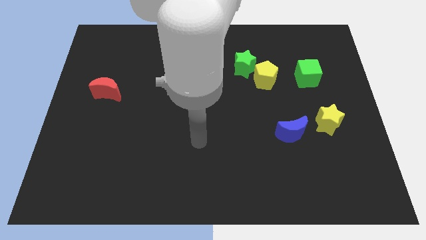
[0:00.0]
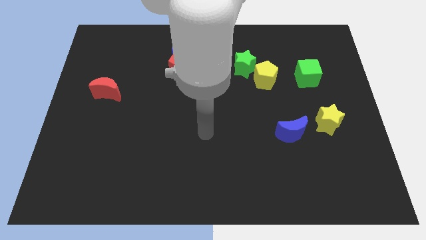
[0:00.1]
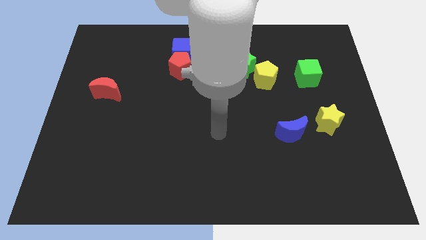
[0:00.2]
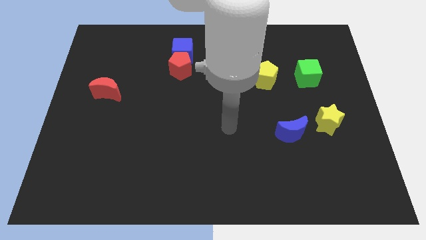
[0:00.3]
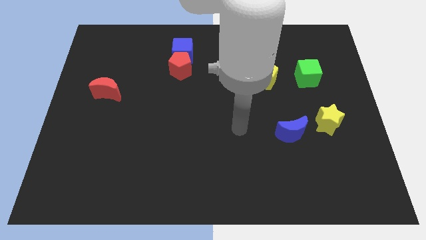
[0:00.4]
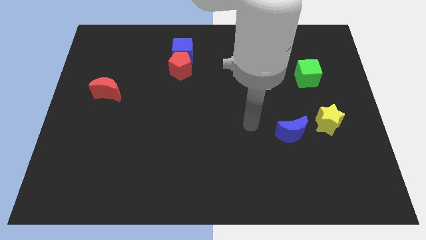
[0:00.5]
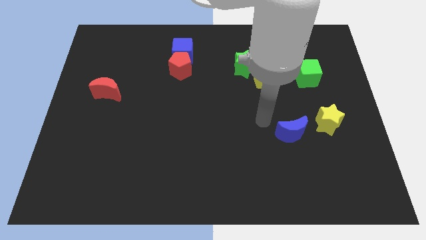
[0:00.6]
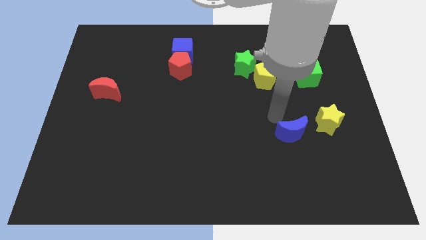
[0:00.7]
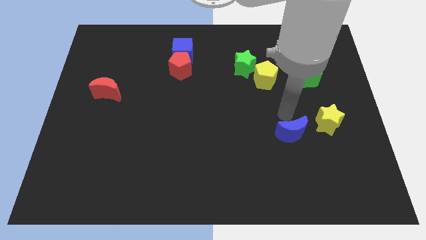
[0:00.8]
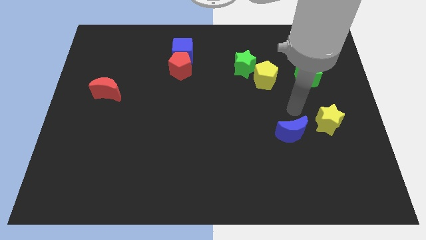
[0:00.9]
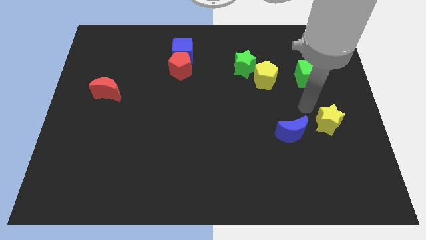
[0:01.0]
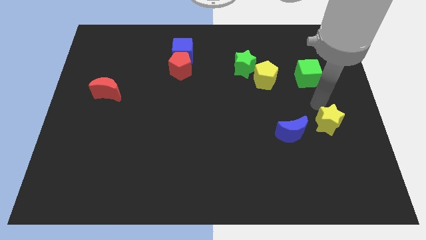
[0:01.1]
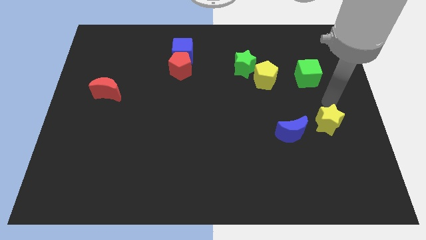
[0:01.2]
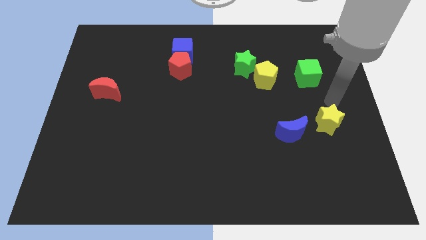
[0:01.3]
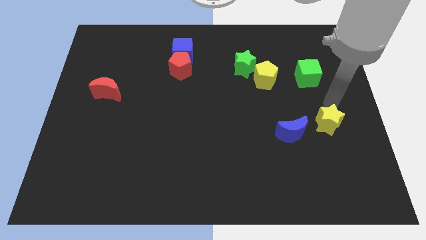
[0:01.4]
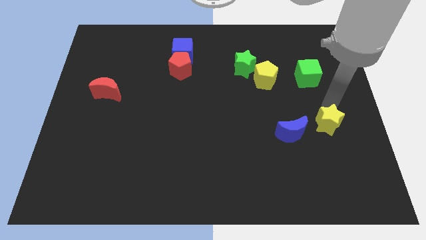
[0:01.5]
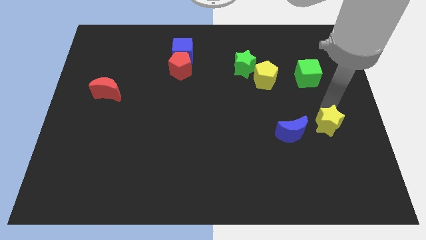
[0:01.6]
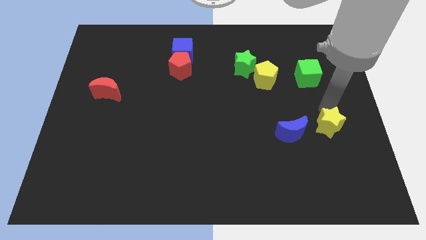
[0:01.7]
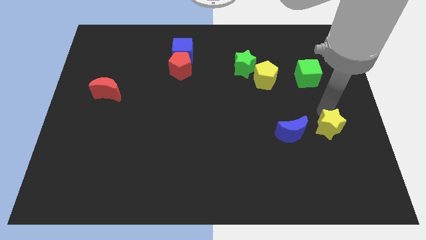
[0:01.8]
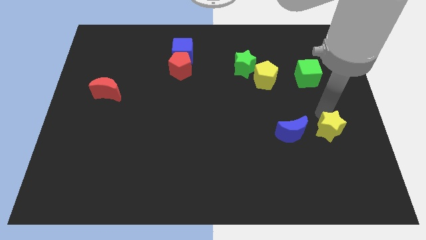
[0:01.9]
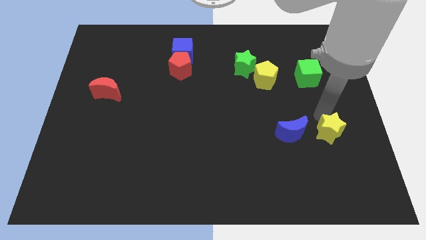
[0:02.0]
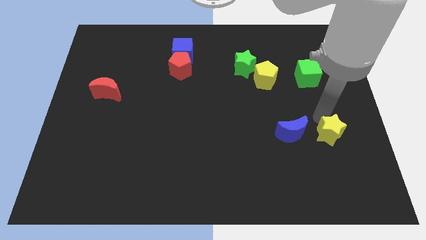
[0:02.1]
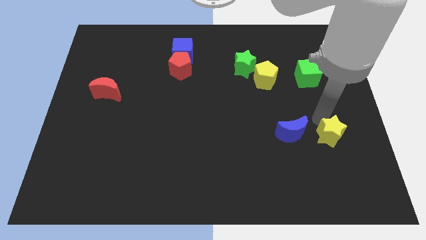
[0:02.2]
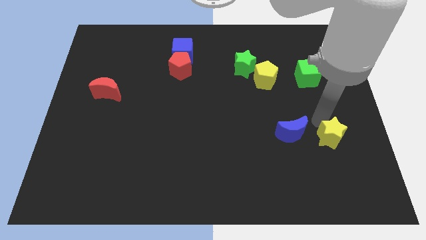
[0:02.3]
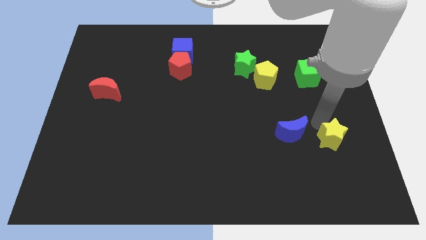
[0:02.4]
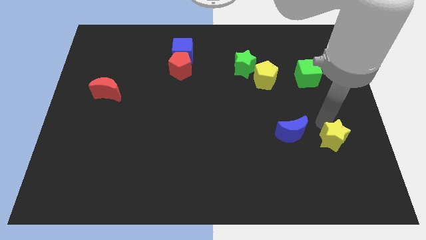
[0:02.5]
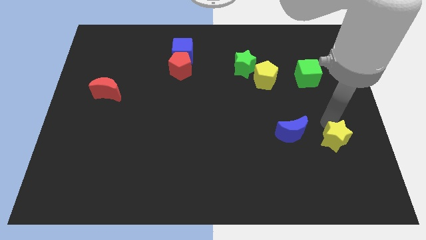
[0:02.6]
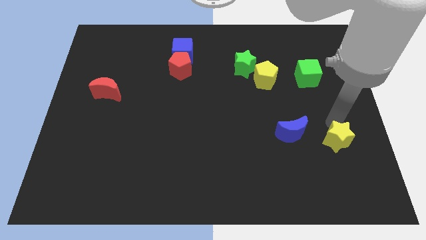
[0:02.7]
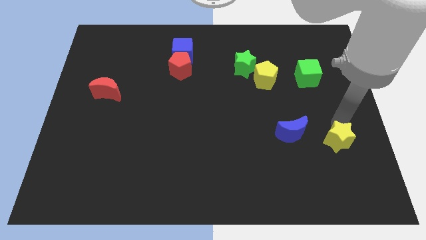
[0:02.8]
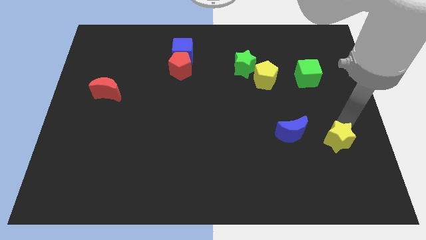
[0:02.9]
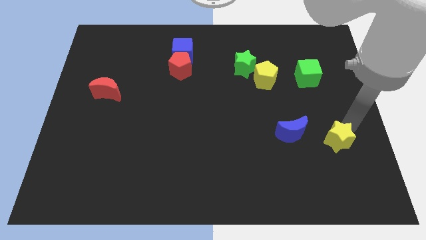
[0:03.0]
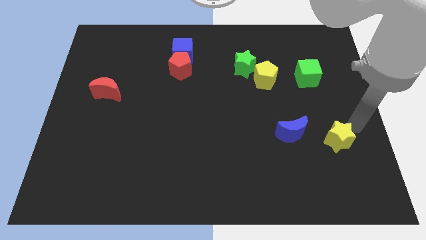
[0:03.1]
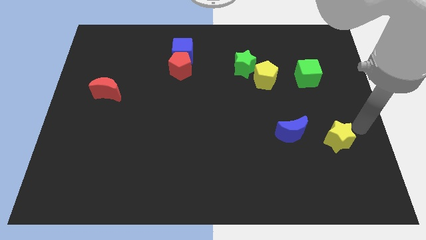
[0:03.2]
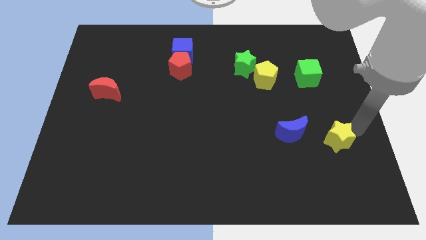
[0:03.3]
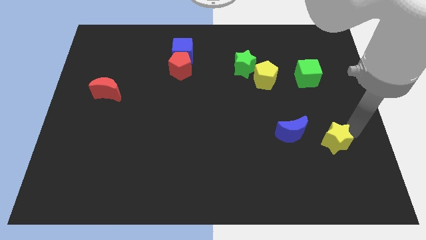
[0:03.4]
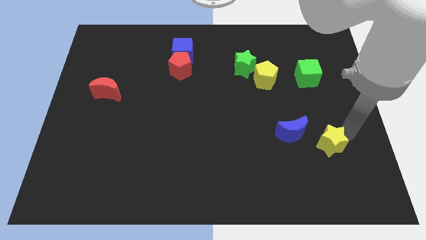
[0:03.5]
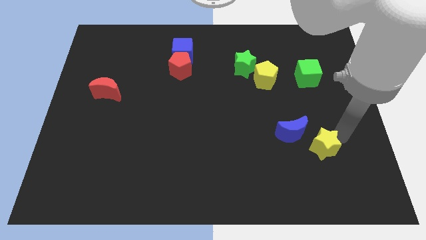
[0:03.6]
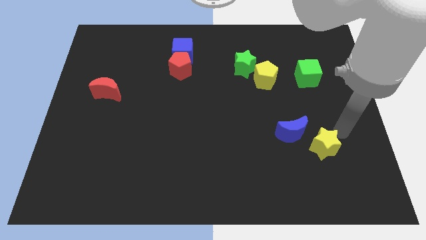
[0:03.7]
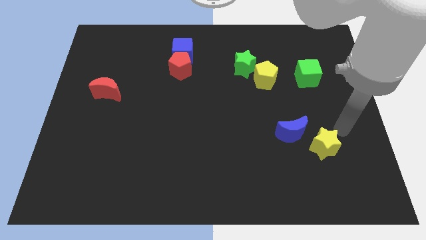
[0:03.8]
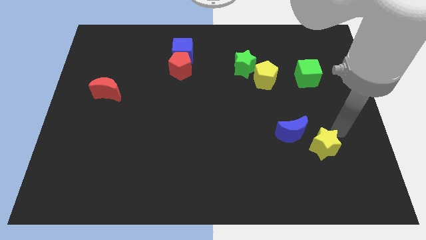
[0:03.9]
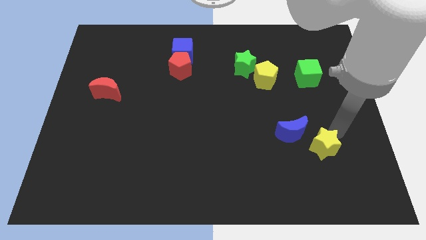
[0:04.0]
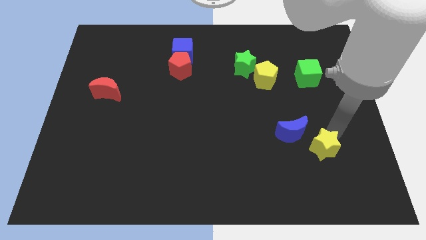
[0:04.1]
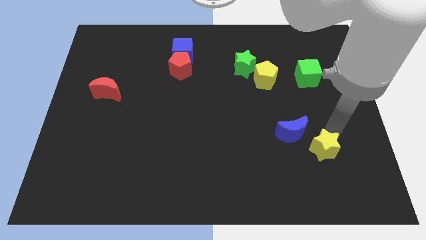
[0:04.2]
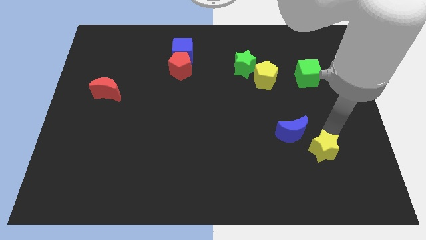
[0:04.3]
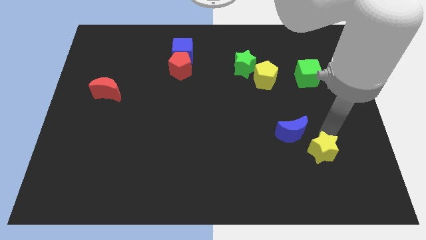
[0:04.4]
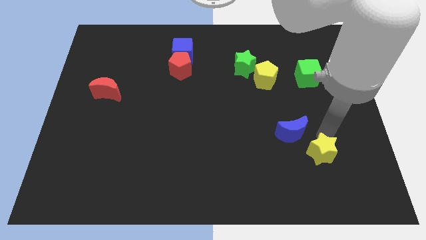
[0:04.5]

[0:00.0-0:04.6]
slightly push the yellow star downwards and to the left diagonally

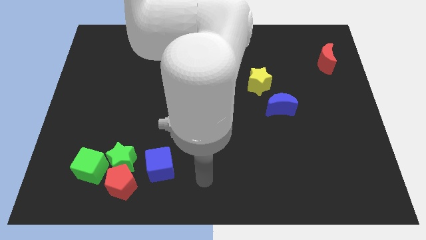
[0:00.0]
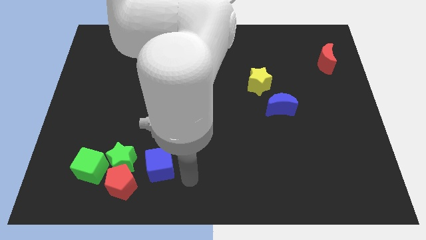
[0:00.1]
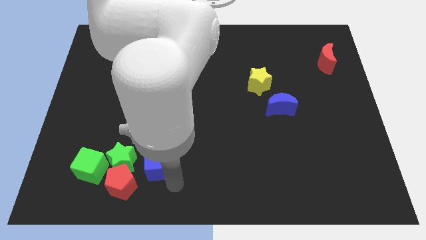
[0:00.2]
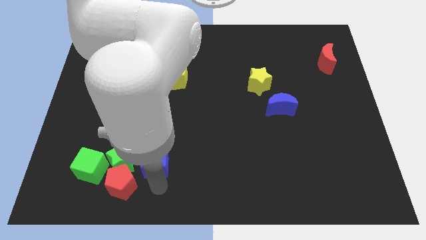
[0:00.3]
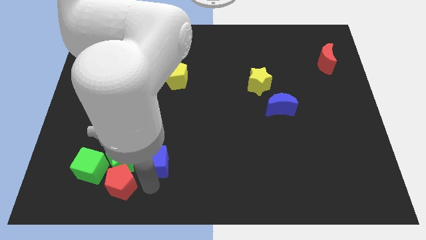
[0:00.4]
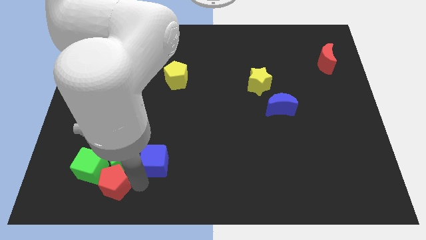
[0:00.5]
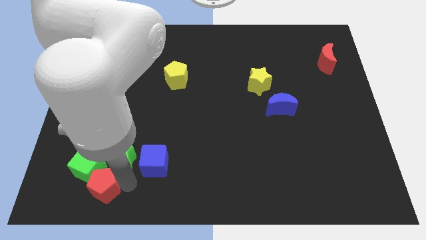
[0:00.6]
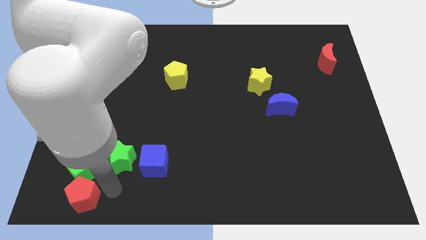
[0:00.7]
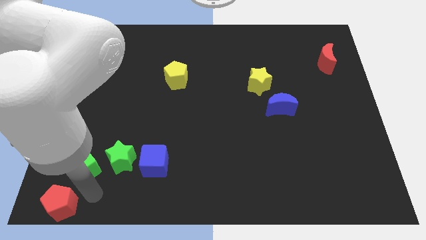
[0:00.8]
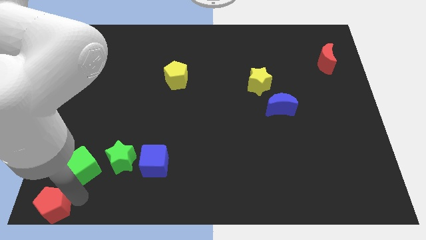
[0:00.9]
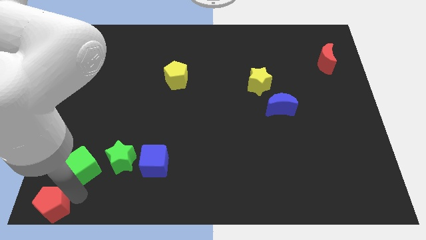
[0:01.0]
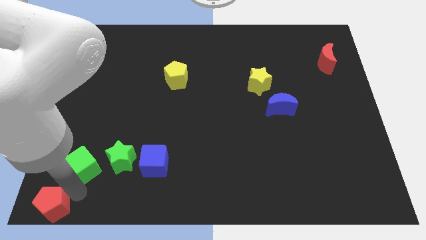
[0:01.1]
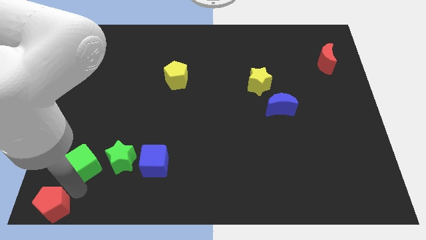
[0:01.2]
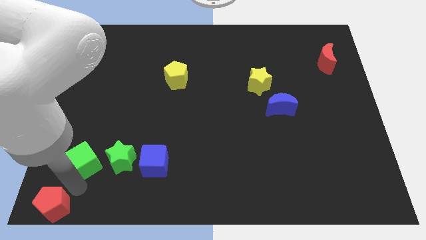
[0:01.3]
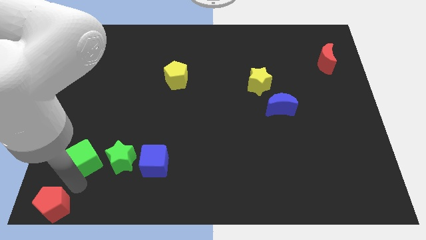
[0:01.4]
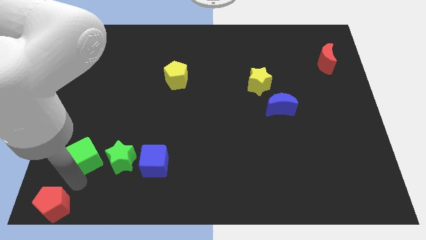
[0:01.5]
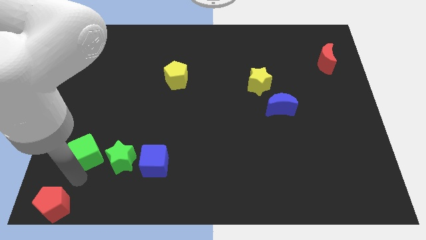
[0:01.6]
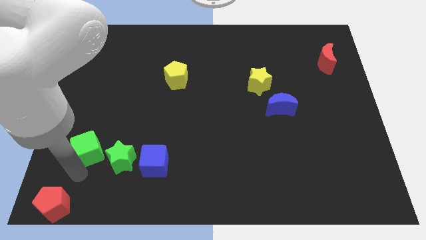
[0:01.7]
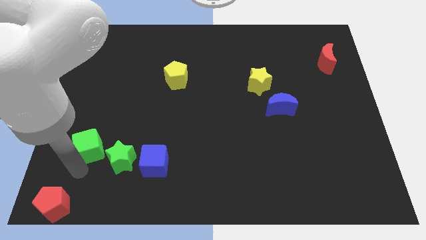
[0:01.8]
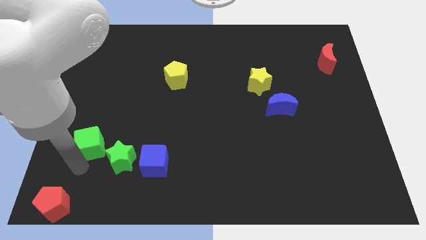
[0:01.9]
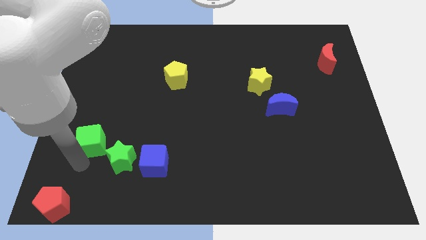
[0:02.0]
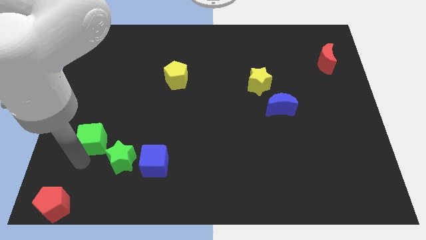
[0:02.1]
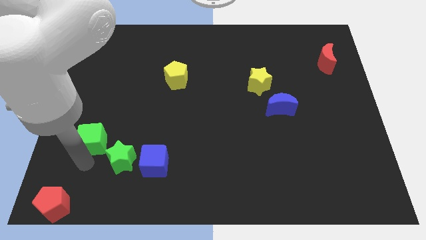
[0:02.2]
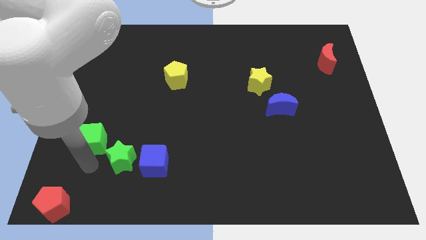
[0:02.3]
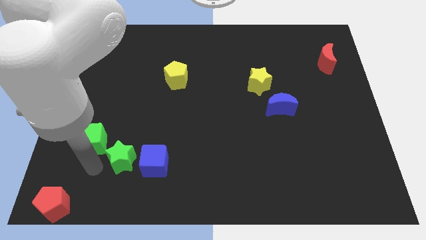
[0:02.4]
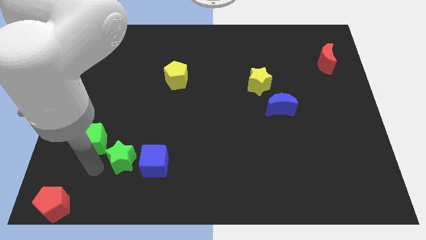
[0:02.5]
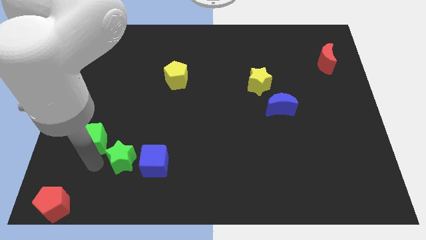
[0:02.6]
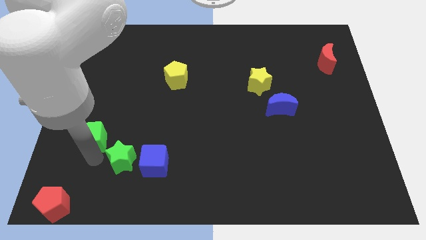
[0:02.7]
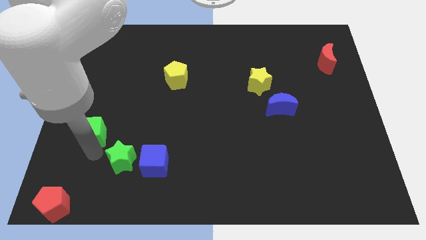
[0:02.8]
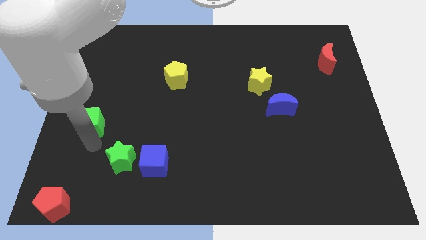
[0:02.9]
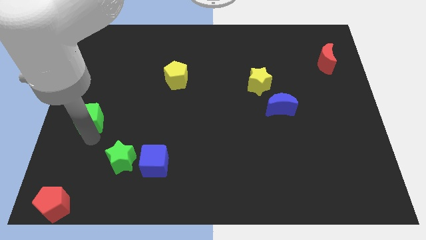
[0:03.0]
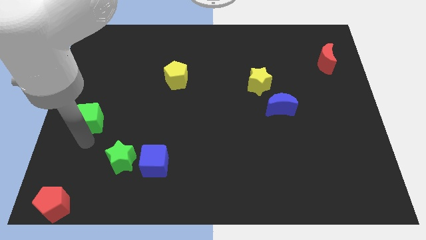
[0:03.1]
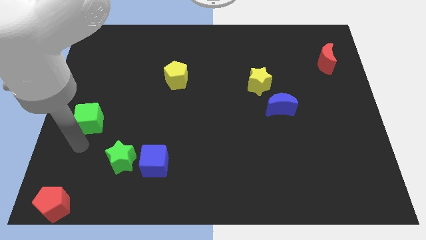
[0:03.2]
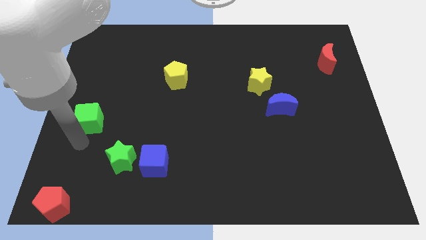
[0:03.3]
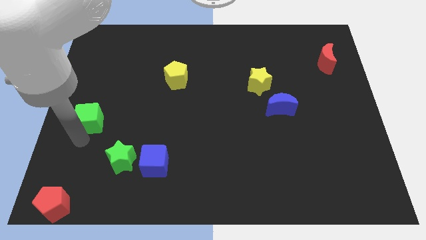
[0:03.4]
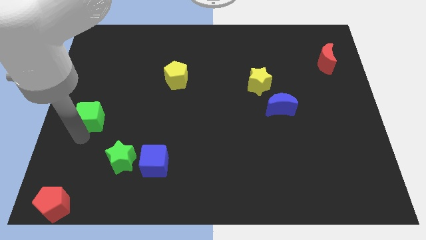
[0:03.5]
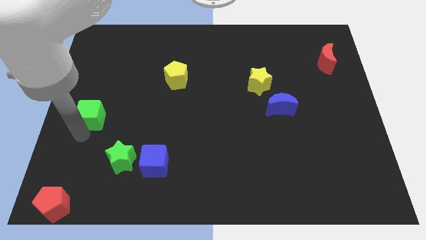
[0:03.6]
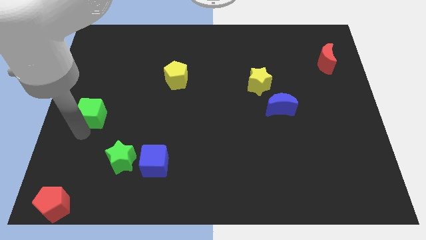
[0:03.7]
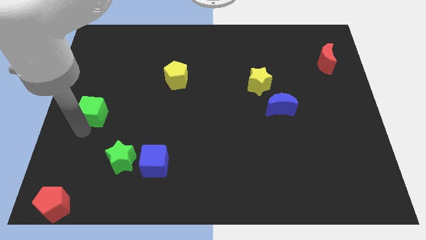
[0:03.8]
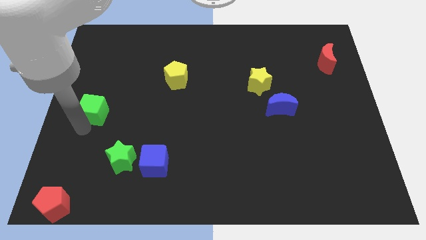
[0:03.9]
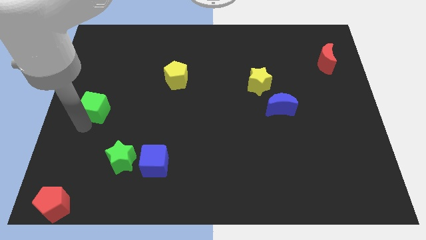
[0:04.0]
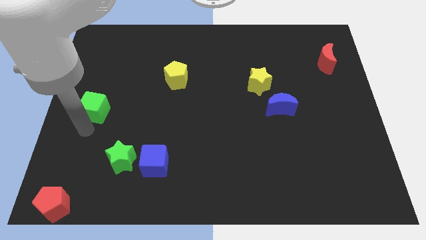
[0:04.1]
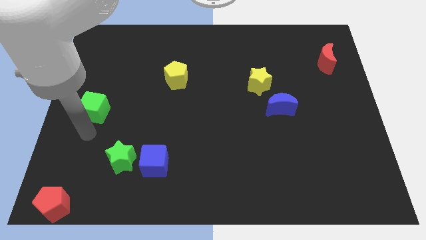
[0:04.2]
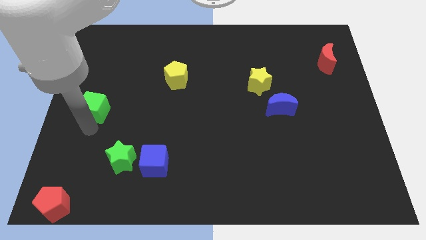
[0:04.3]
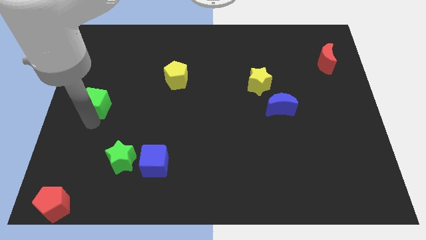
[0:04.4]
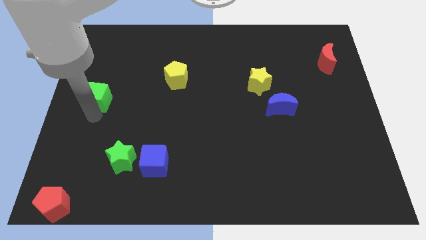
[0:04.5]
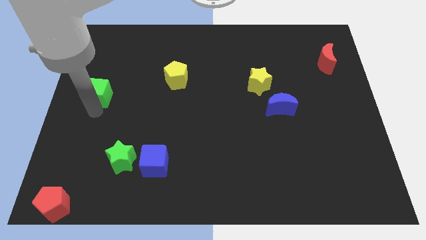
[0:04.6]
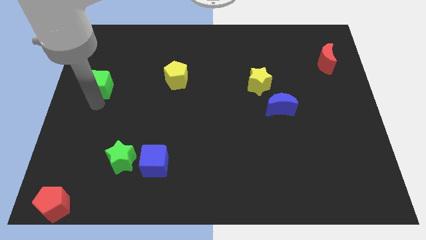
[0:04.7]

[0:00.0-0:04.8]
move the green cube up
